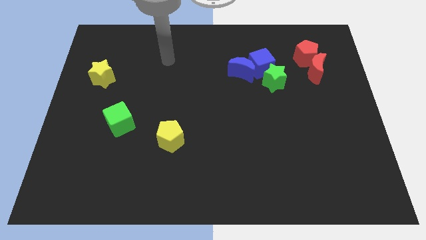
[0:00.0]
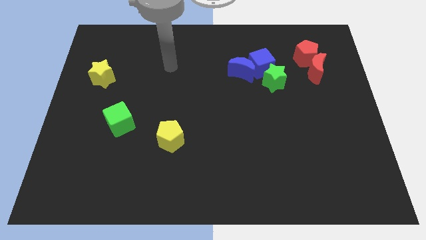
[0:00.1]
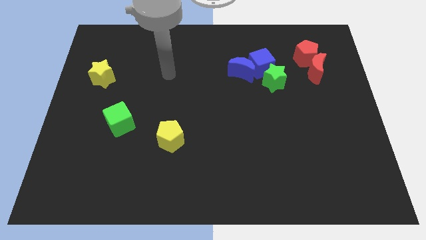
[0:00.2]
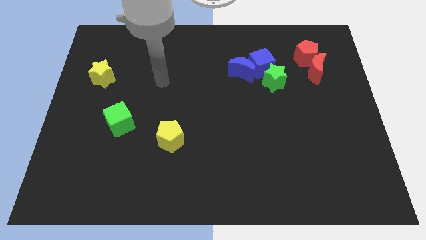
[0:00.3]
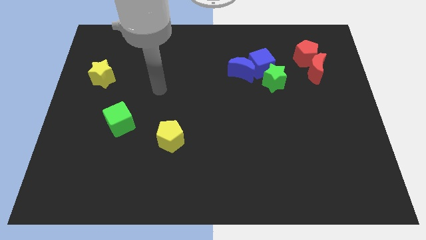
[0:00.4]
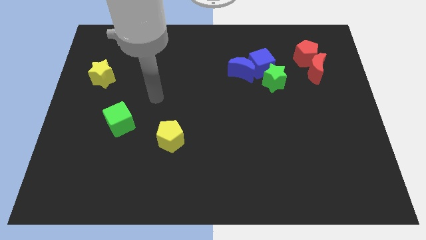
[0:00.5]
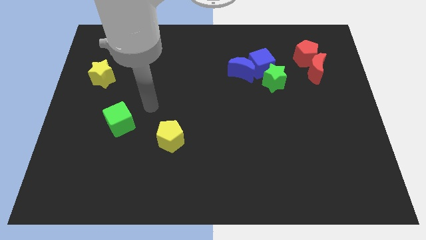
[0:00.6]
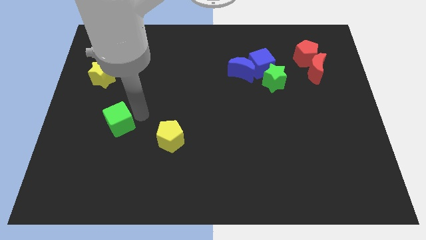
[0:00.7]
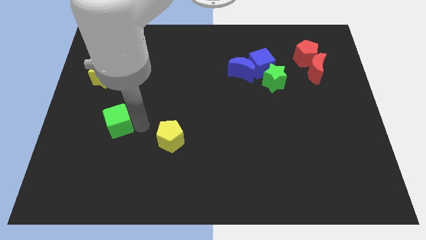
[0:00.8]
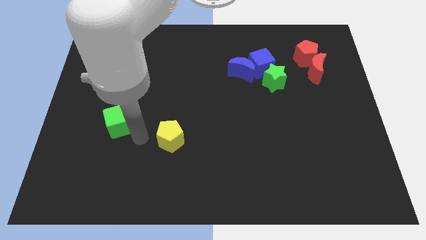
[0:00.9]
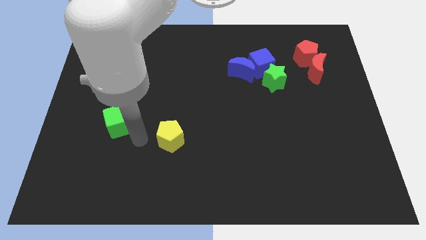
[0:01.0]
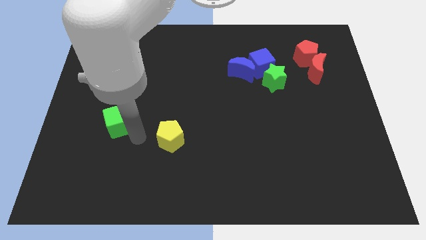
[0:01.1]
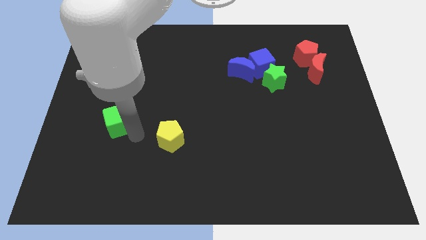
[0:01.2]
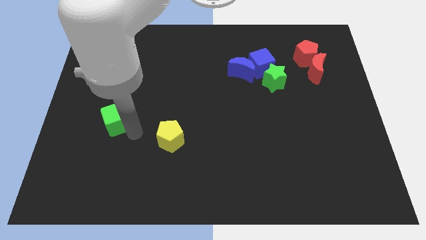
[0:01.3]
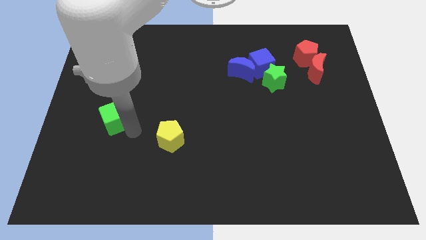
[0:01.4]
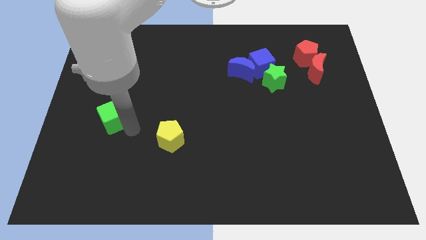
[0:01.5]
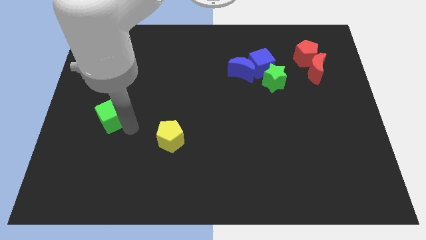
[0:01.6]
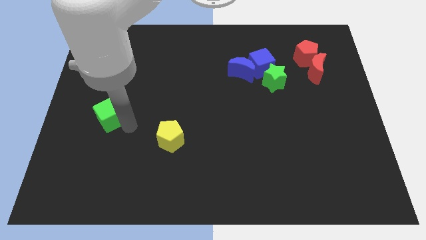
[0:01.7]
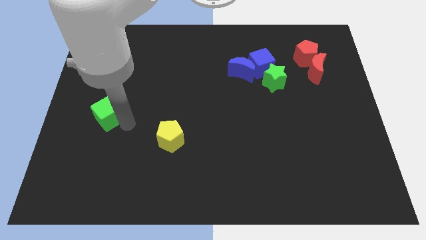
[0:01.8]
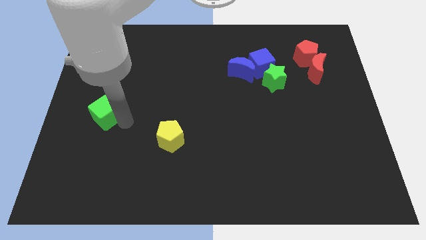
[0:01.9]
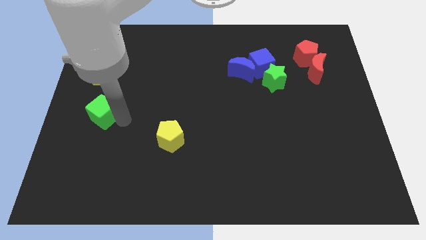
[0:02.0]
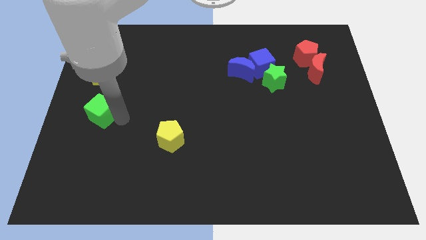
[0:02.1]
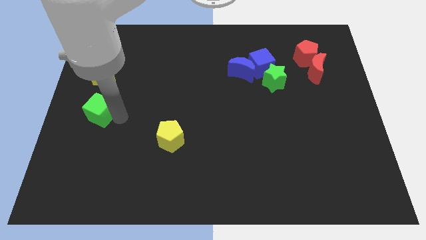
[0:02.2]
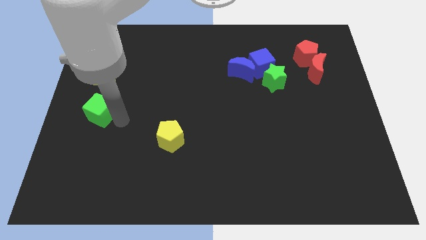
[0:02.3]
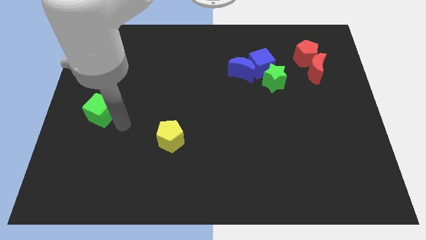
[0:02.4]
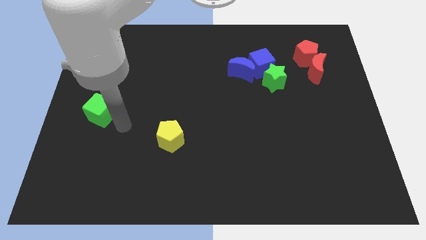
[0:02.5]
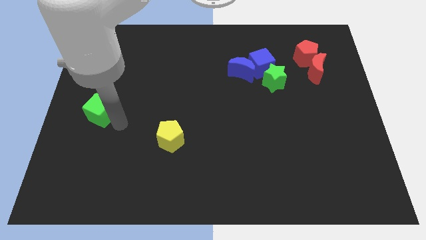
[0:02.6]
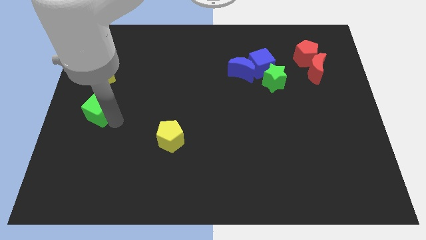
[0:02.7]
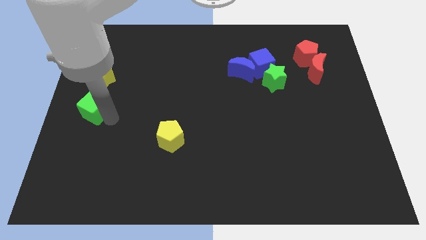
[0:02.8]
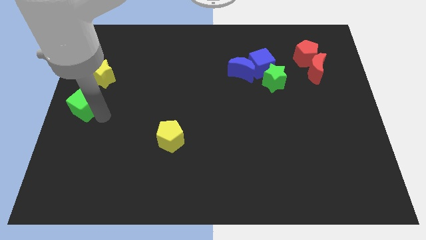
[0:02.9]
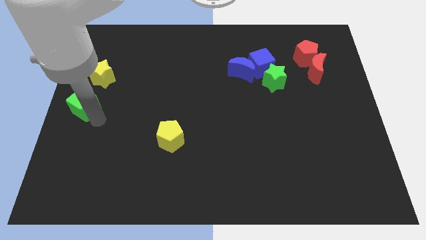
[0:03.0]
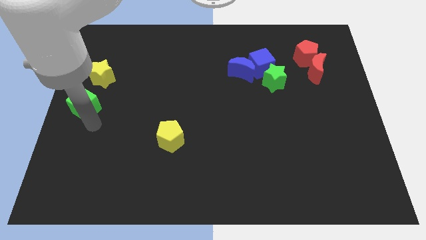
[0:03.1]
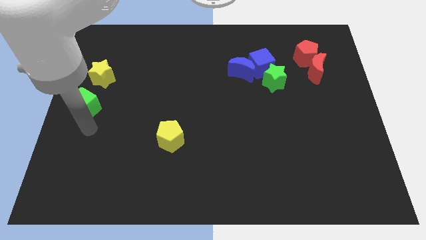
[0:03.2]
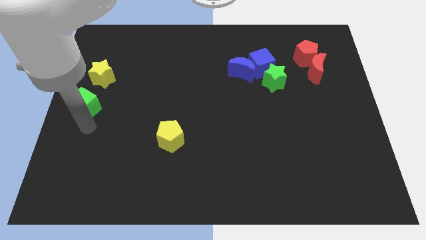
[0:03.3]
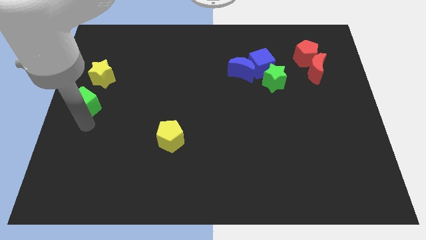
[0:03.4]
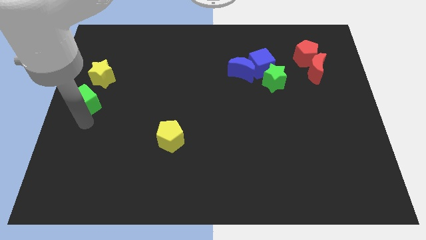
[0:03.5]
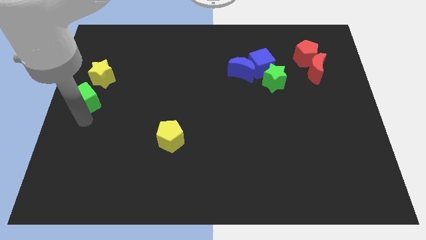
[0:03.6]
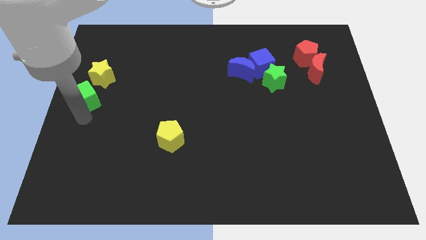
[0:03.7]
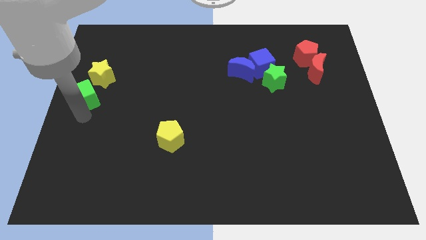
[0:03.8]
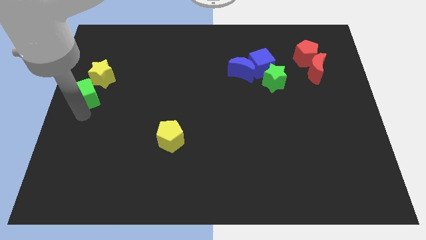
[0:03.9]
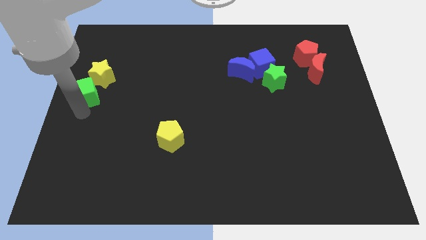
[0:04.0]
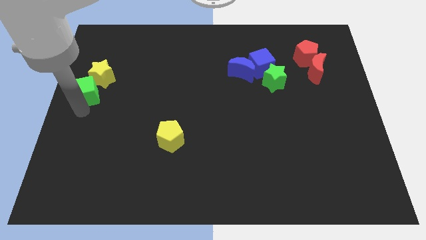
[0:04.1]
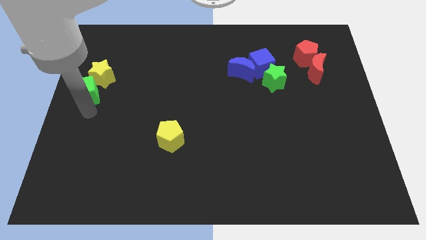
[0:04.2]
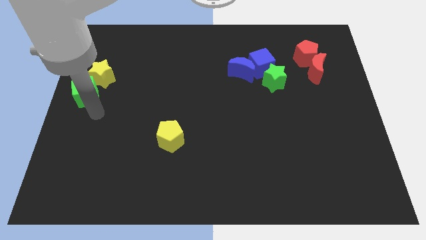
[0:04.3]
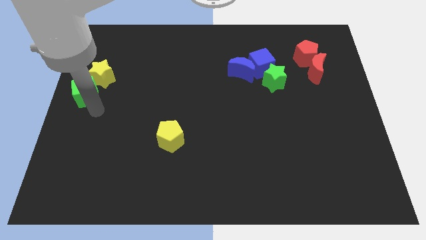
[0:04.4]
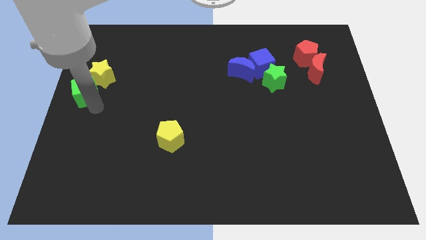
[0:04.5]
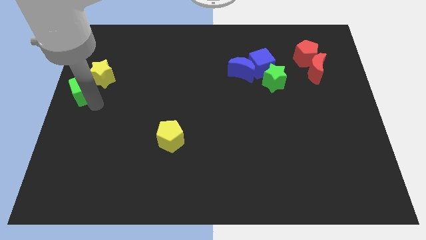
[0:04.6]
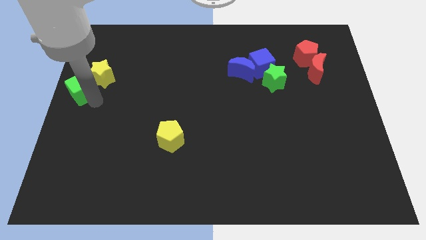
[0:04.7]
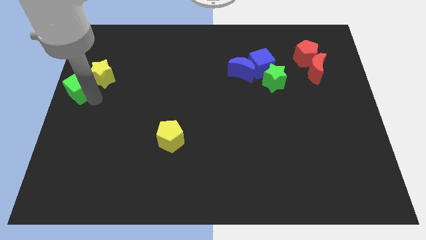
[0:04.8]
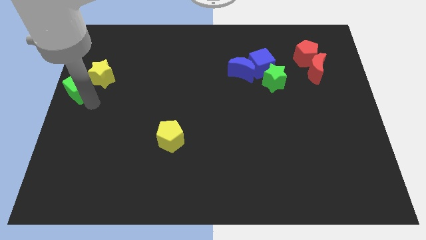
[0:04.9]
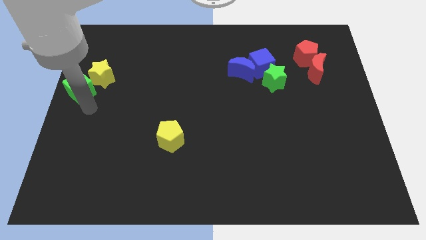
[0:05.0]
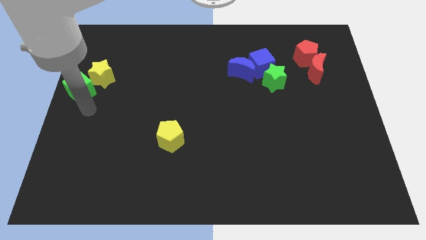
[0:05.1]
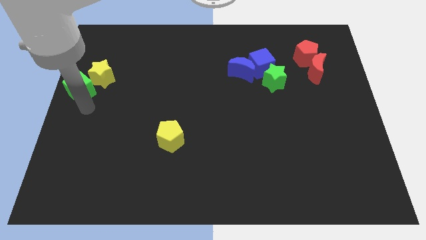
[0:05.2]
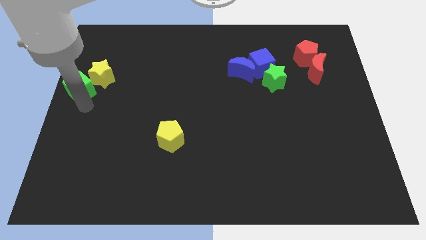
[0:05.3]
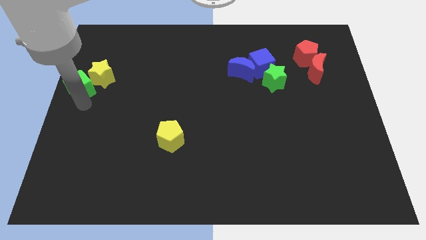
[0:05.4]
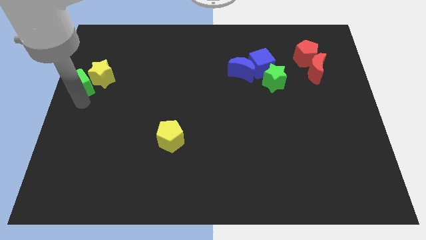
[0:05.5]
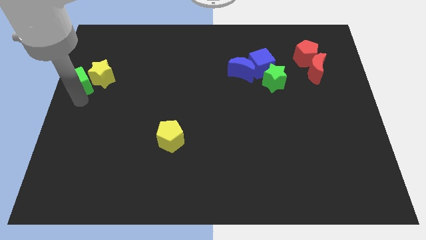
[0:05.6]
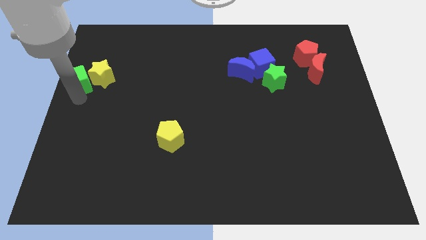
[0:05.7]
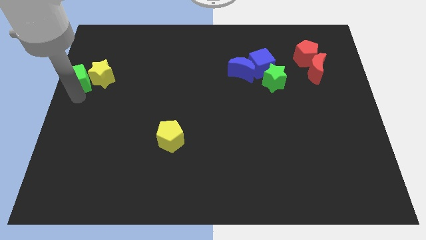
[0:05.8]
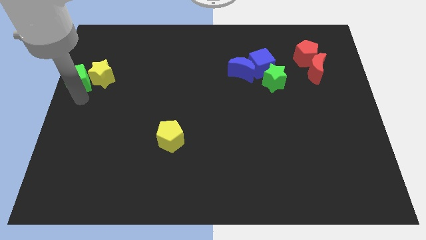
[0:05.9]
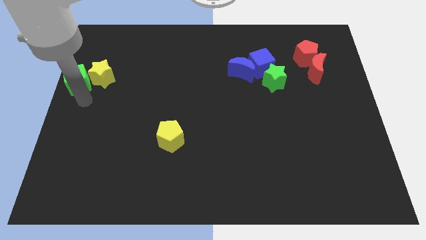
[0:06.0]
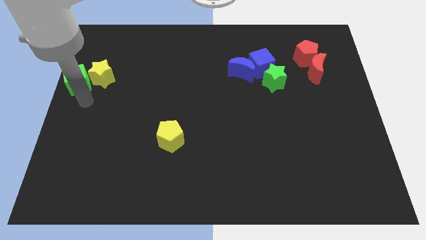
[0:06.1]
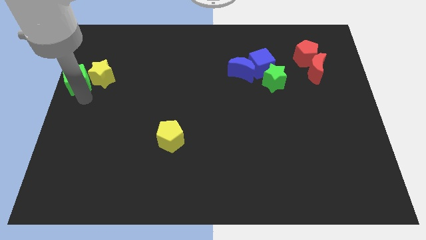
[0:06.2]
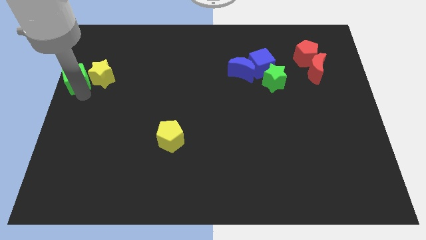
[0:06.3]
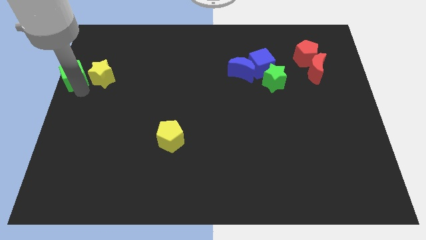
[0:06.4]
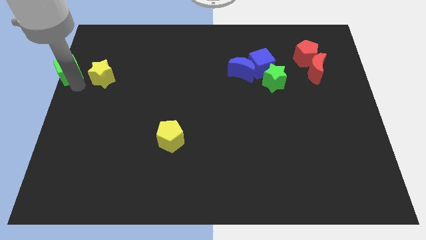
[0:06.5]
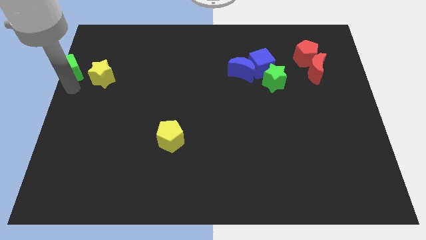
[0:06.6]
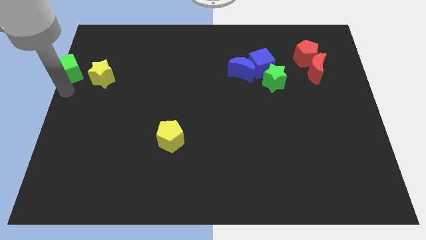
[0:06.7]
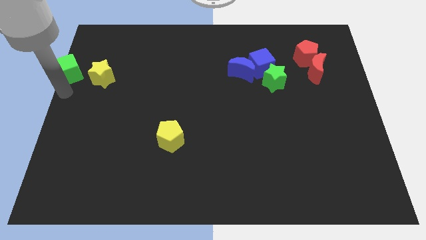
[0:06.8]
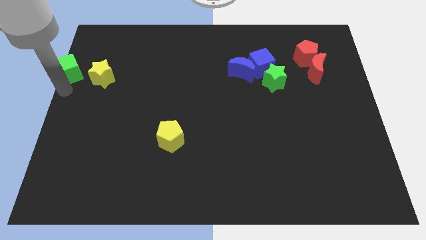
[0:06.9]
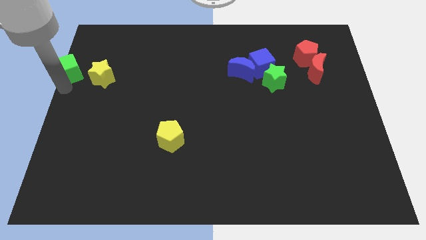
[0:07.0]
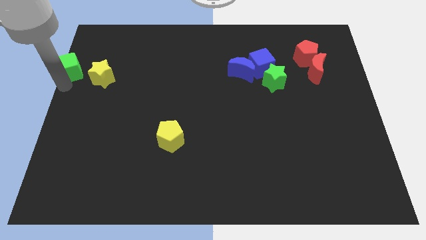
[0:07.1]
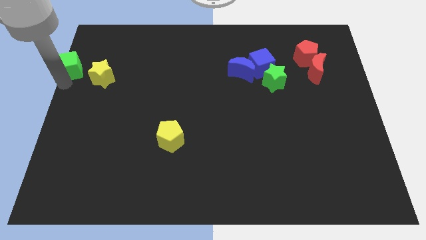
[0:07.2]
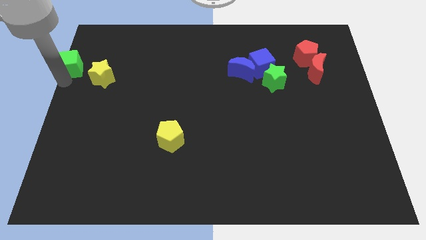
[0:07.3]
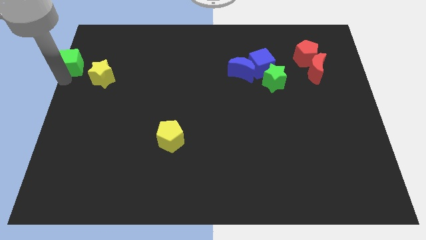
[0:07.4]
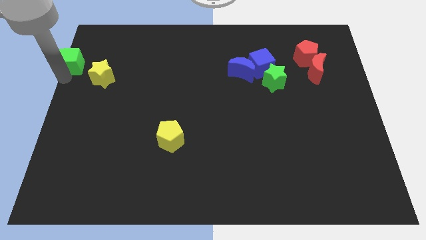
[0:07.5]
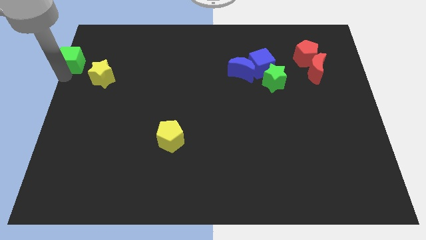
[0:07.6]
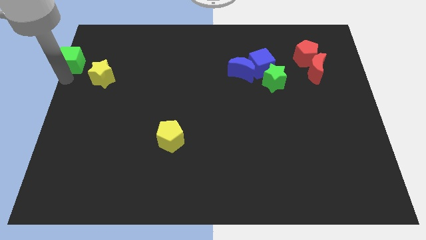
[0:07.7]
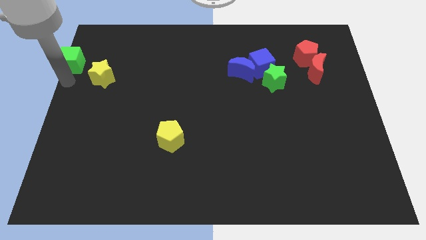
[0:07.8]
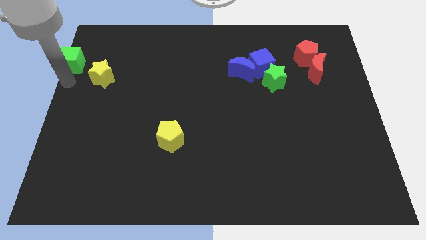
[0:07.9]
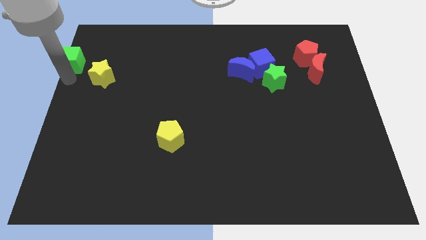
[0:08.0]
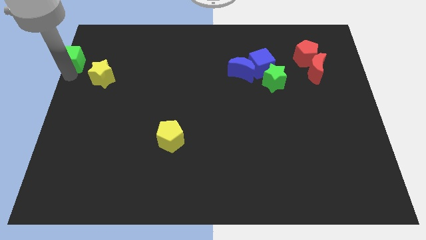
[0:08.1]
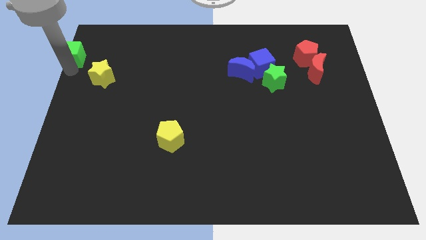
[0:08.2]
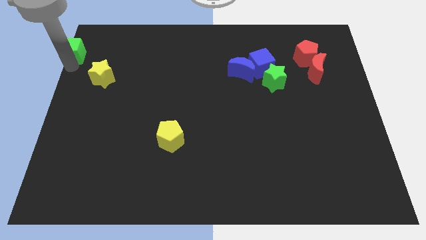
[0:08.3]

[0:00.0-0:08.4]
put the green cube to the upper left corner
